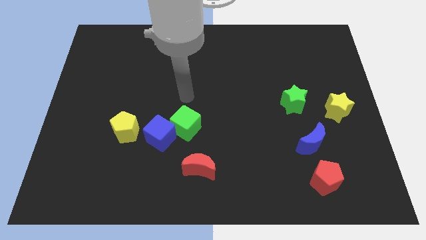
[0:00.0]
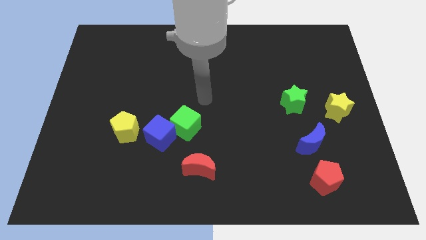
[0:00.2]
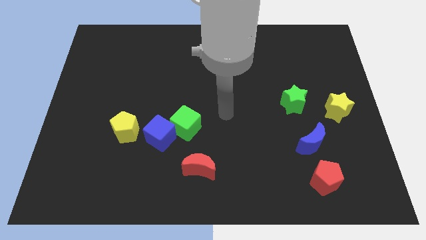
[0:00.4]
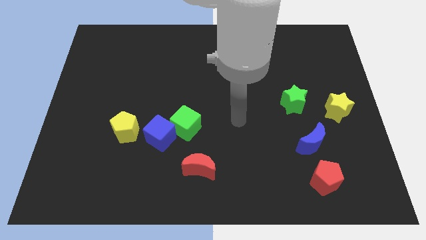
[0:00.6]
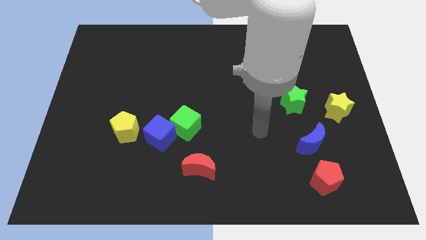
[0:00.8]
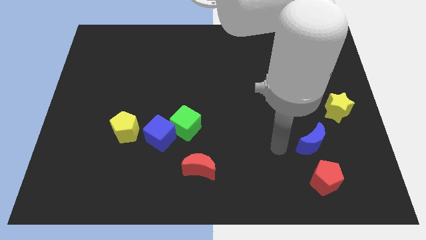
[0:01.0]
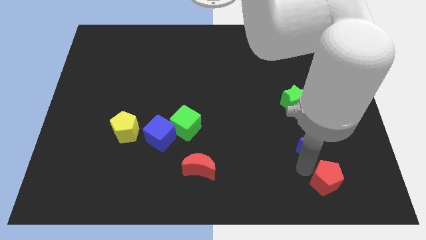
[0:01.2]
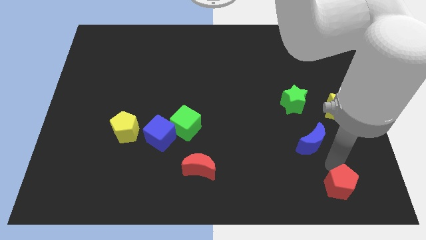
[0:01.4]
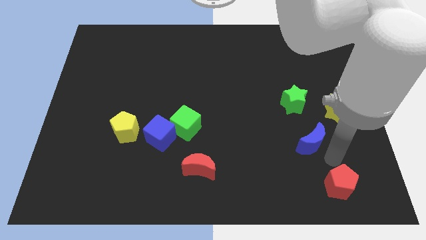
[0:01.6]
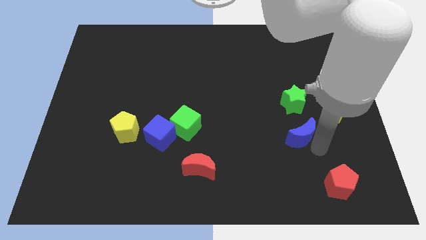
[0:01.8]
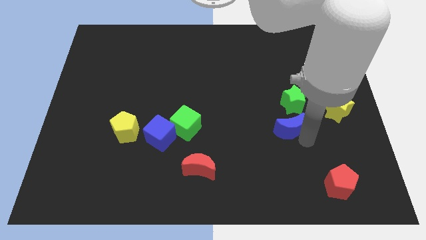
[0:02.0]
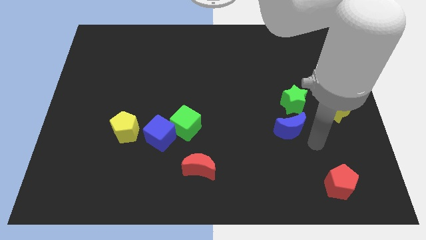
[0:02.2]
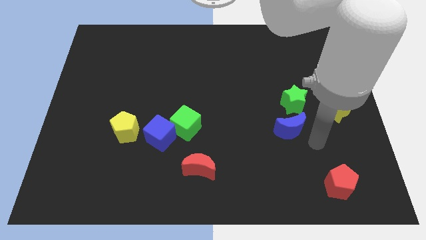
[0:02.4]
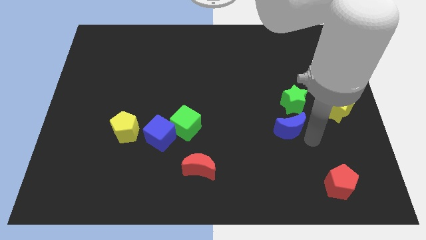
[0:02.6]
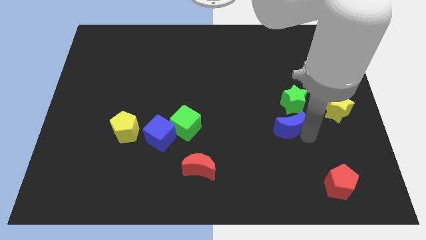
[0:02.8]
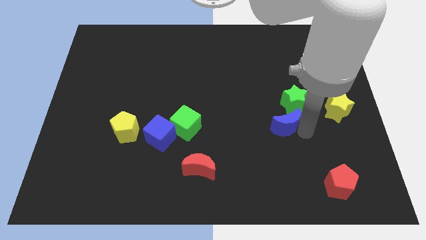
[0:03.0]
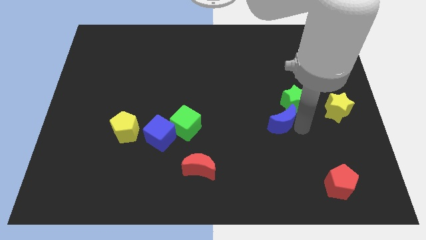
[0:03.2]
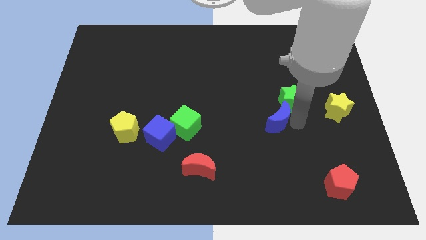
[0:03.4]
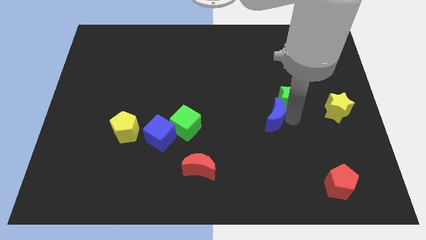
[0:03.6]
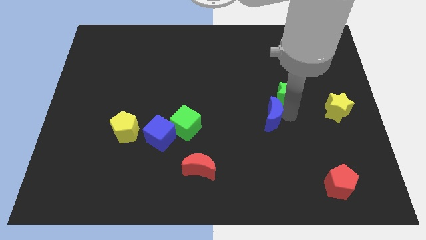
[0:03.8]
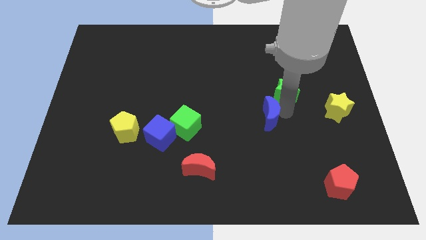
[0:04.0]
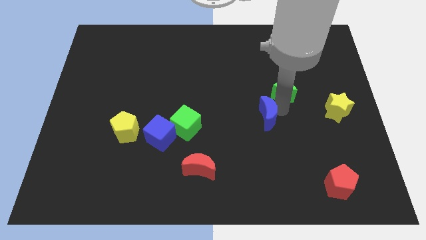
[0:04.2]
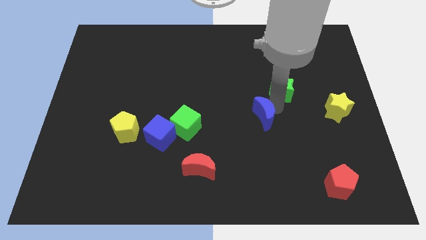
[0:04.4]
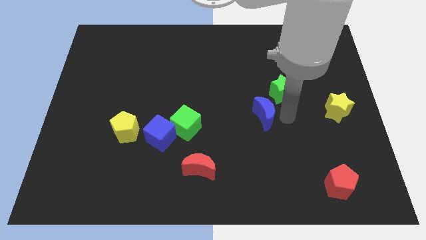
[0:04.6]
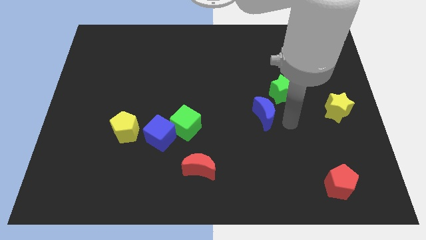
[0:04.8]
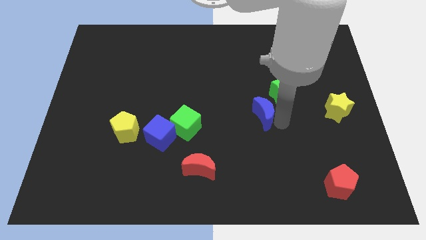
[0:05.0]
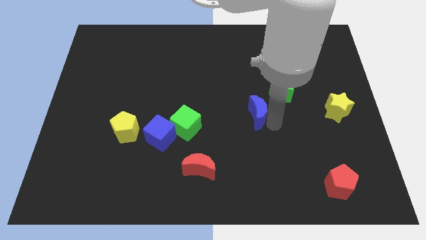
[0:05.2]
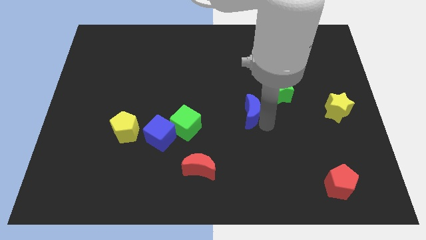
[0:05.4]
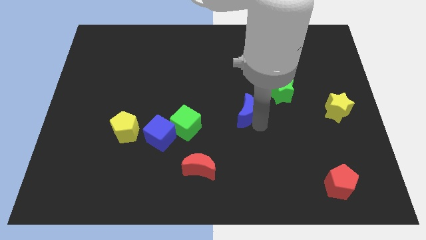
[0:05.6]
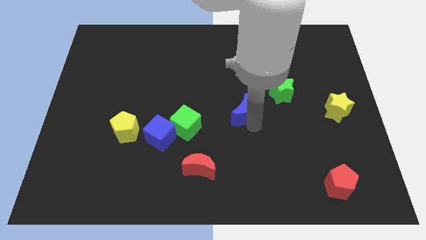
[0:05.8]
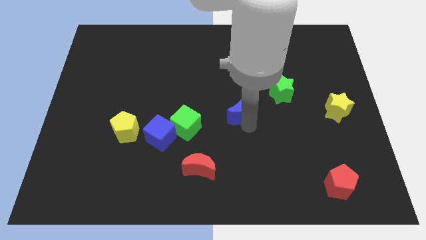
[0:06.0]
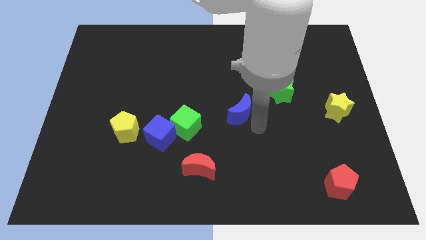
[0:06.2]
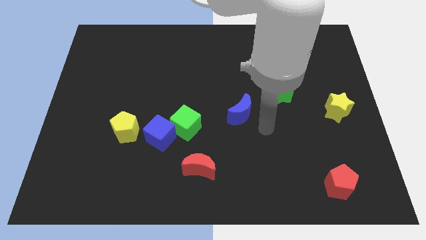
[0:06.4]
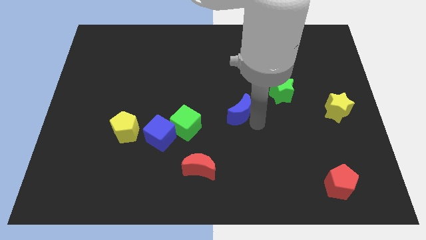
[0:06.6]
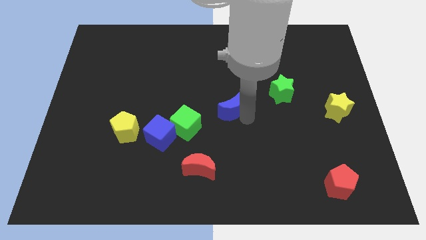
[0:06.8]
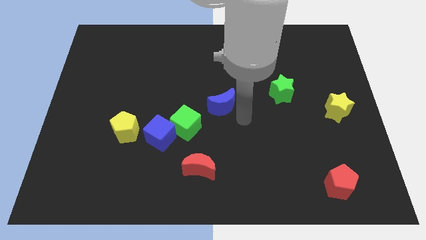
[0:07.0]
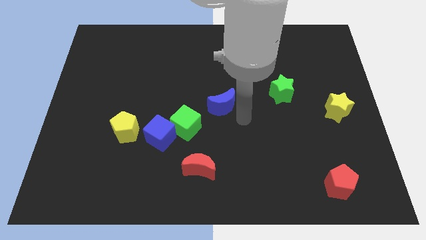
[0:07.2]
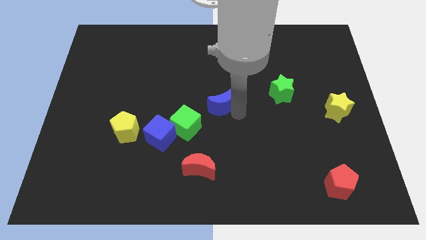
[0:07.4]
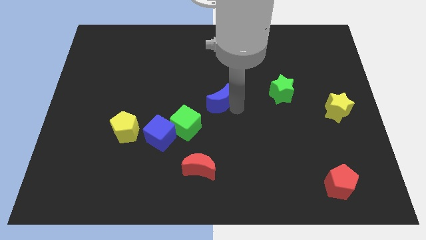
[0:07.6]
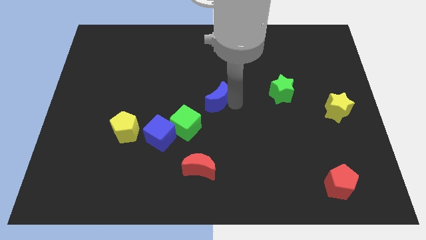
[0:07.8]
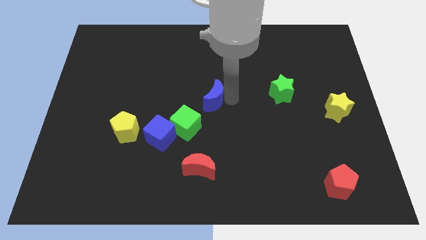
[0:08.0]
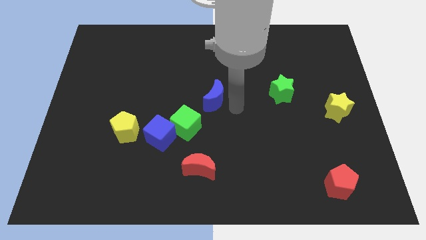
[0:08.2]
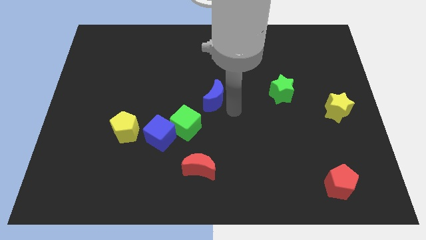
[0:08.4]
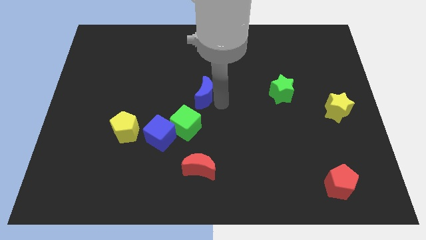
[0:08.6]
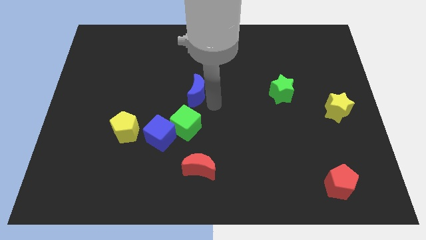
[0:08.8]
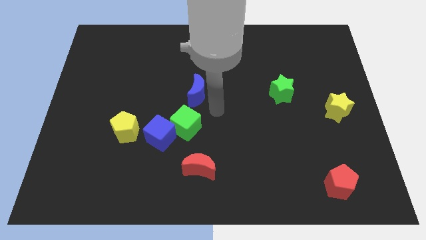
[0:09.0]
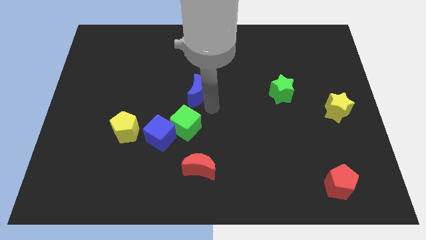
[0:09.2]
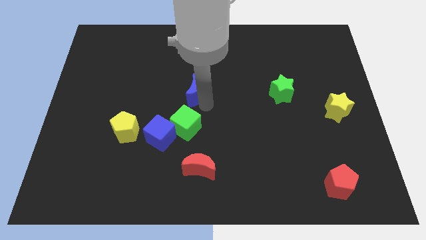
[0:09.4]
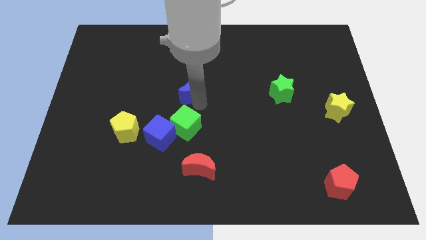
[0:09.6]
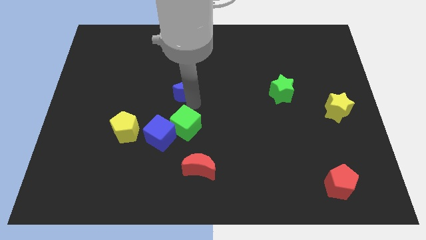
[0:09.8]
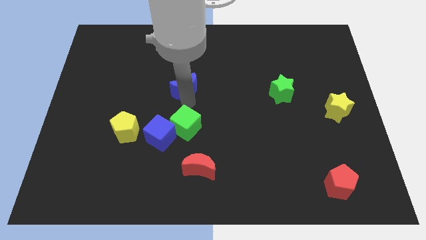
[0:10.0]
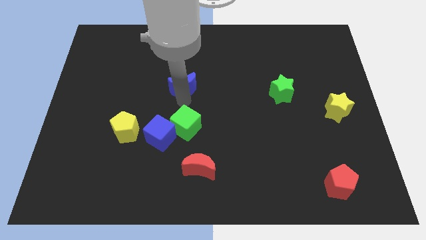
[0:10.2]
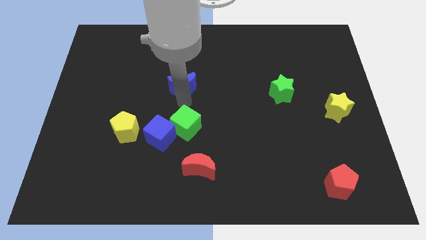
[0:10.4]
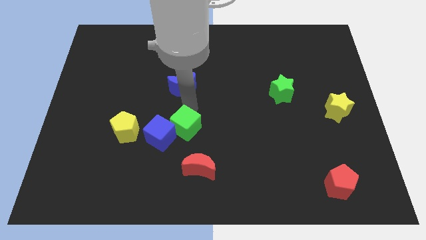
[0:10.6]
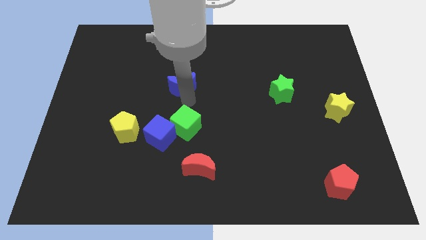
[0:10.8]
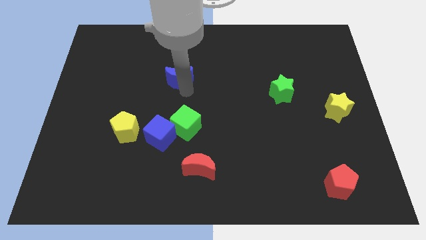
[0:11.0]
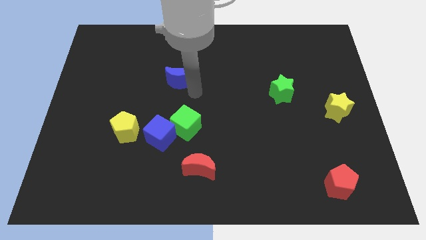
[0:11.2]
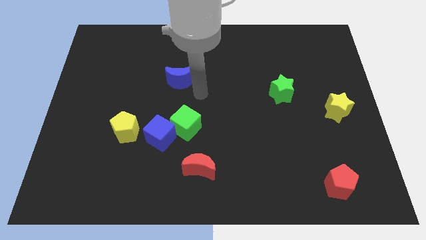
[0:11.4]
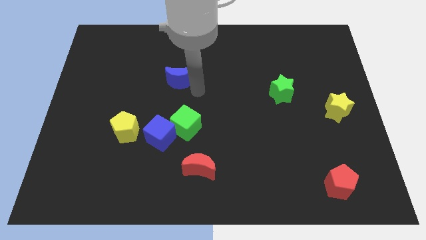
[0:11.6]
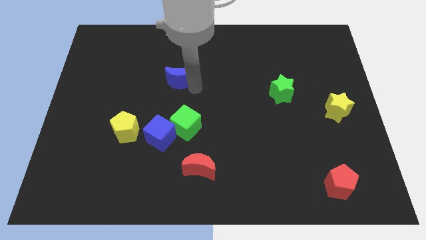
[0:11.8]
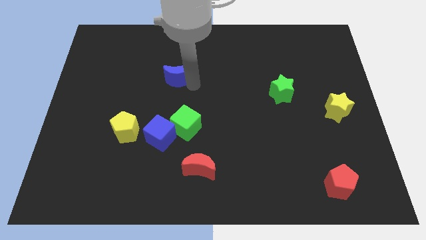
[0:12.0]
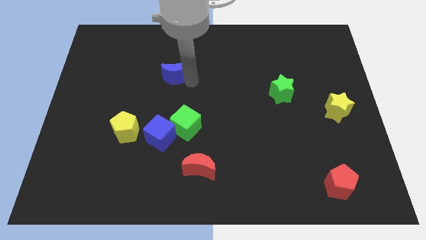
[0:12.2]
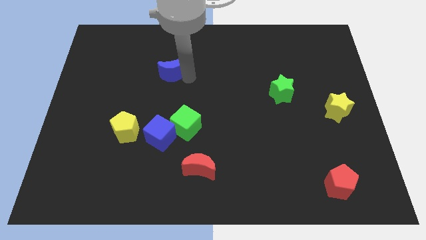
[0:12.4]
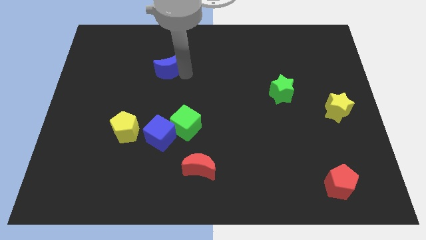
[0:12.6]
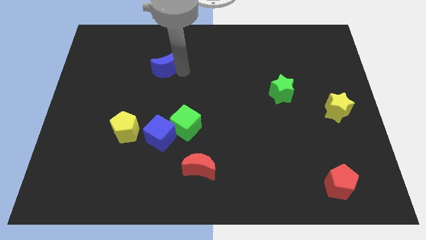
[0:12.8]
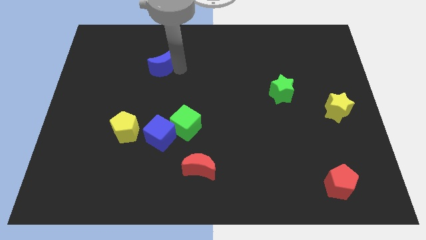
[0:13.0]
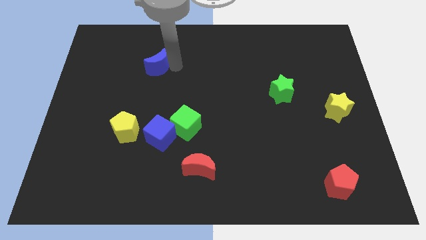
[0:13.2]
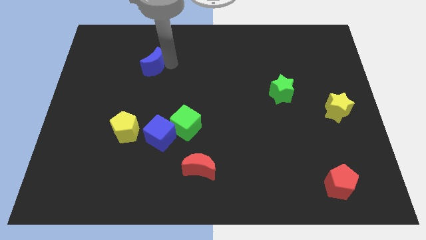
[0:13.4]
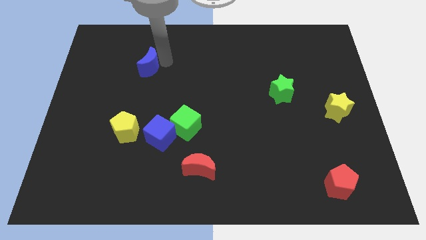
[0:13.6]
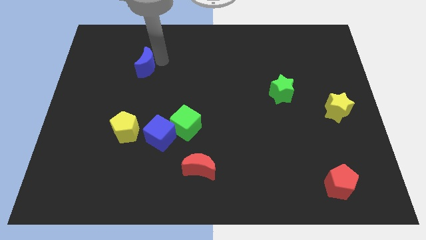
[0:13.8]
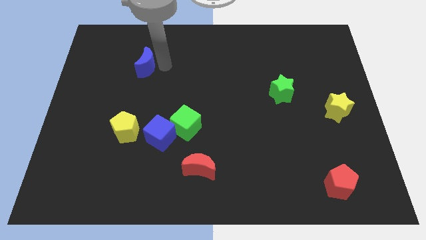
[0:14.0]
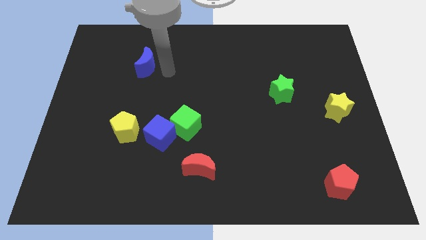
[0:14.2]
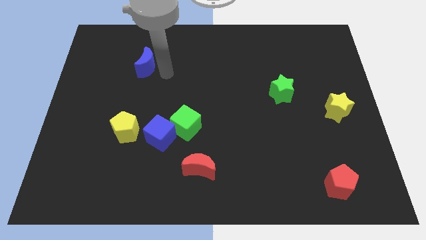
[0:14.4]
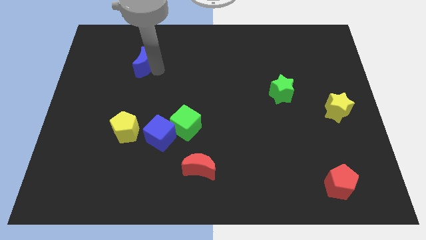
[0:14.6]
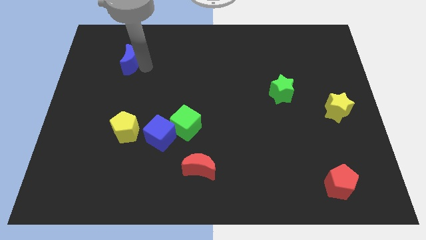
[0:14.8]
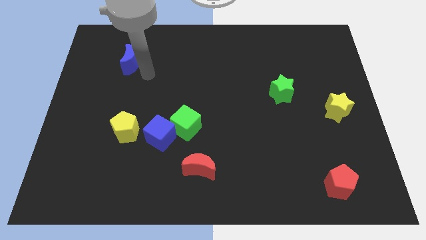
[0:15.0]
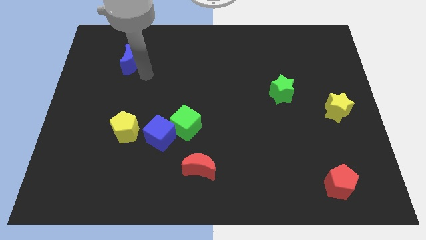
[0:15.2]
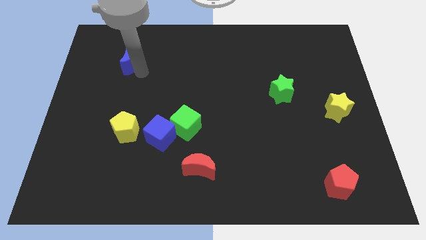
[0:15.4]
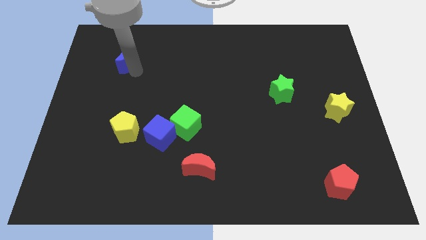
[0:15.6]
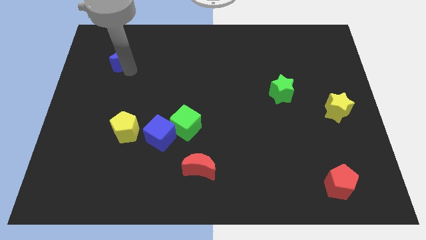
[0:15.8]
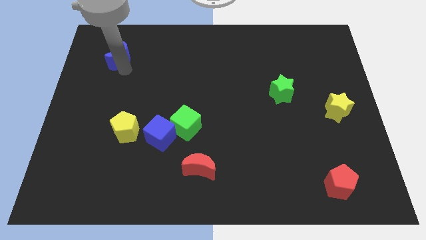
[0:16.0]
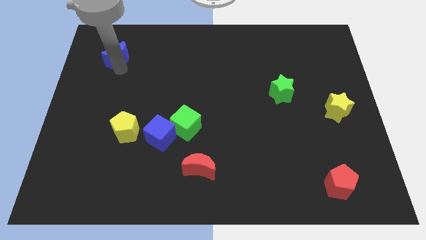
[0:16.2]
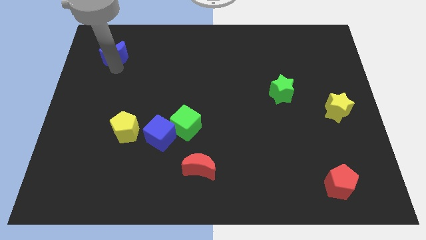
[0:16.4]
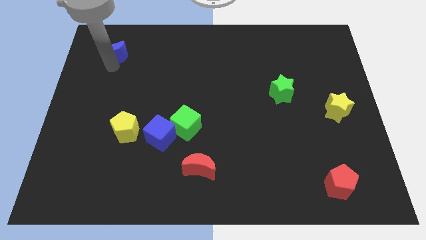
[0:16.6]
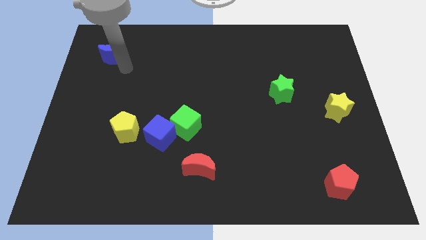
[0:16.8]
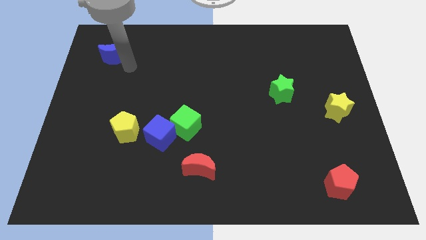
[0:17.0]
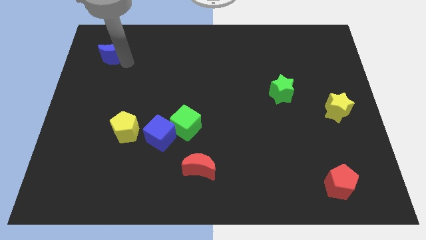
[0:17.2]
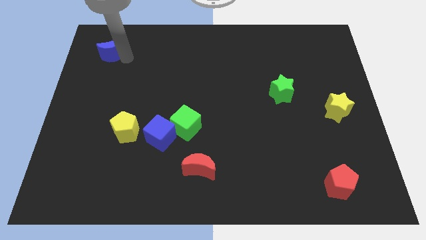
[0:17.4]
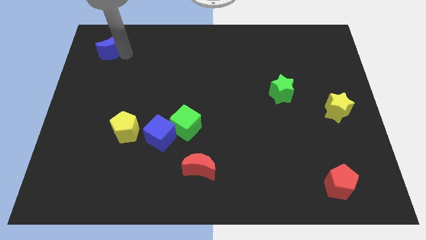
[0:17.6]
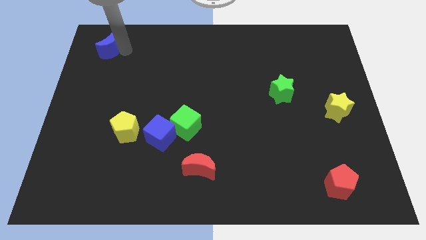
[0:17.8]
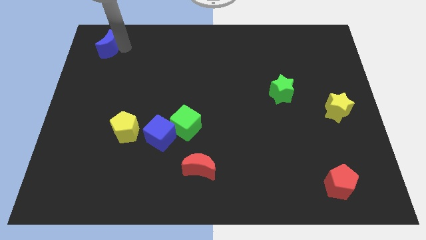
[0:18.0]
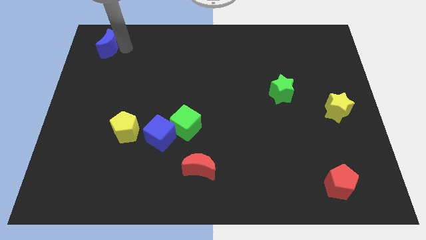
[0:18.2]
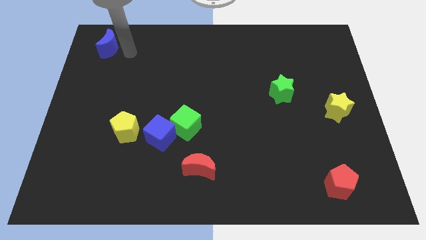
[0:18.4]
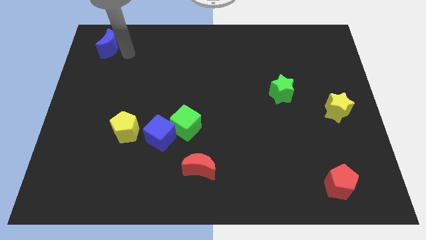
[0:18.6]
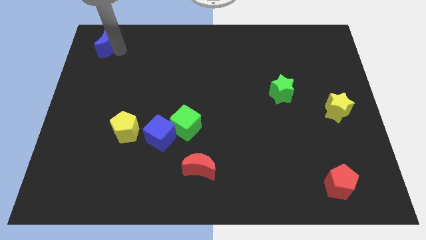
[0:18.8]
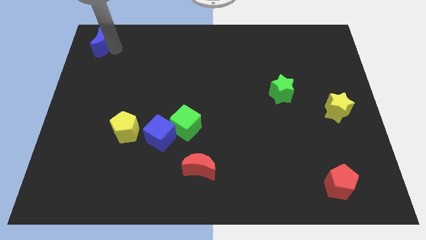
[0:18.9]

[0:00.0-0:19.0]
push the blue moon to the top left
